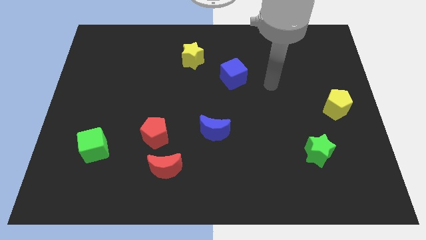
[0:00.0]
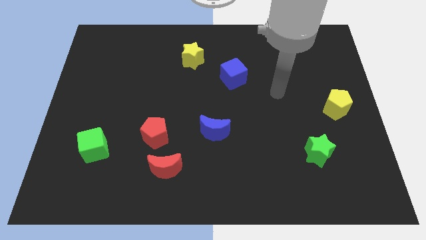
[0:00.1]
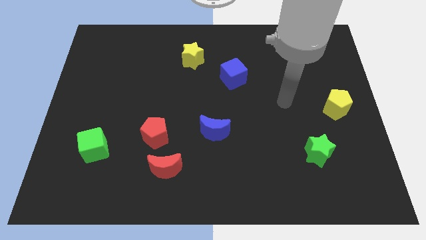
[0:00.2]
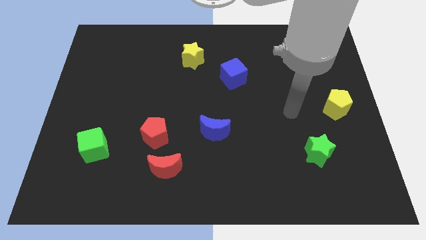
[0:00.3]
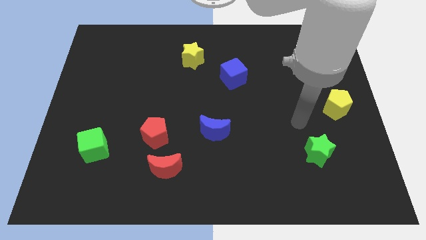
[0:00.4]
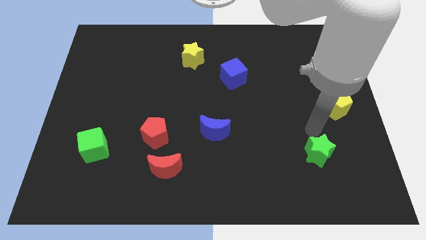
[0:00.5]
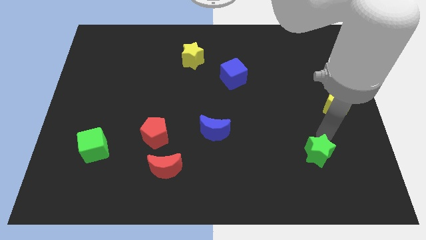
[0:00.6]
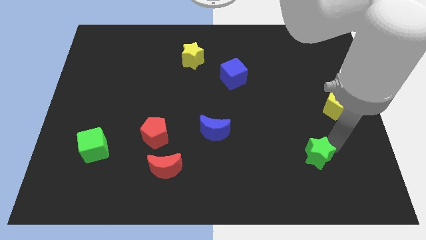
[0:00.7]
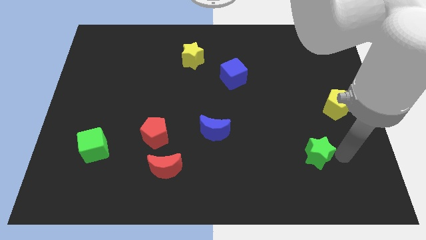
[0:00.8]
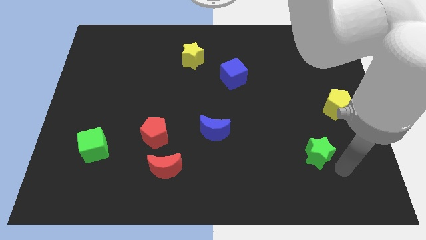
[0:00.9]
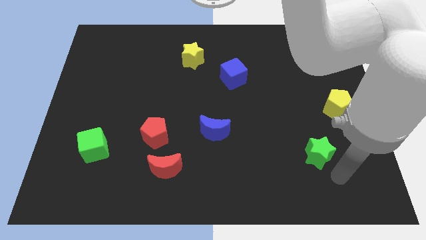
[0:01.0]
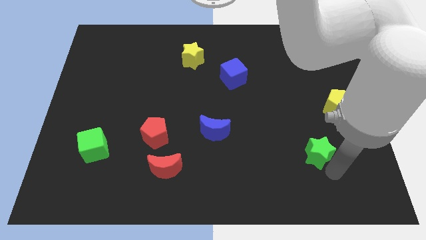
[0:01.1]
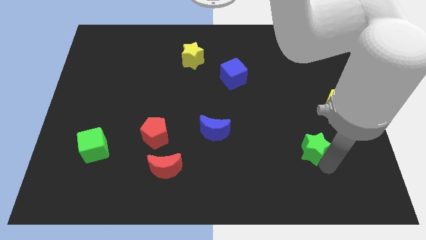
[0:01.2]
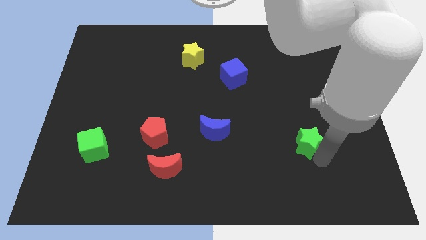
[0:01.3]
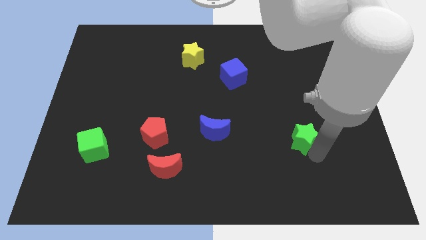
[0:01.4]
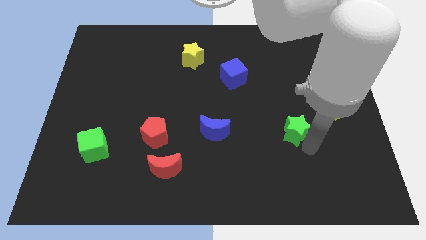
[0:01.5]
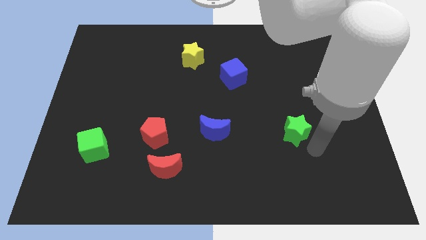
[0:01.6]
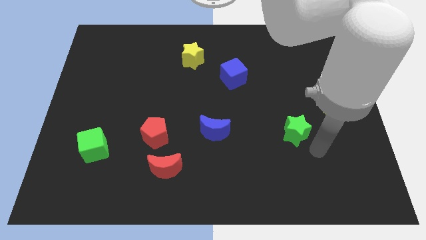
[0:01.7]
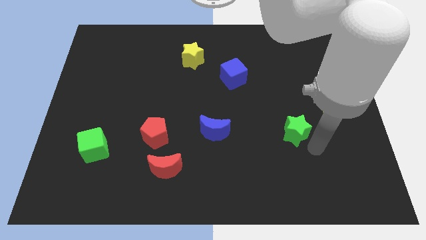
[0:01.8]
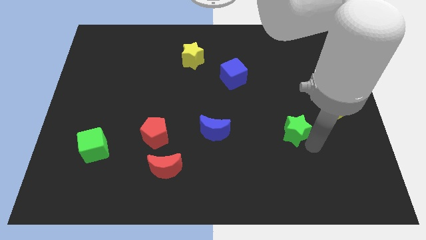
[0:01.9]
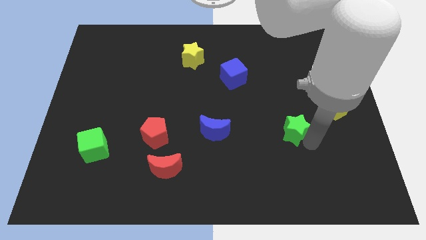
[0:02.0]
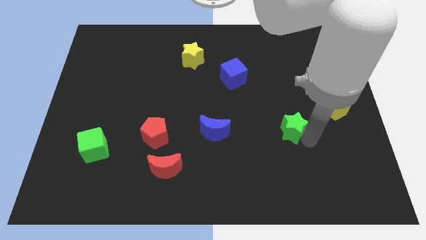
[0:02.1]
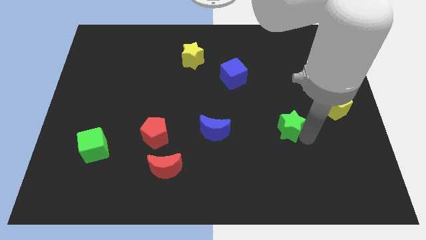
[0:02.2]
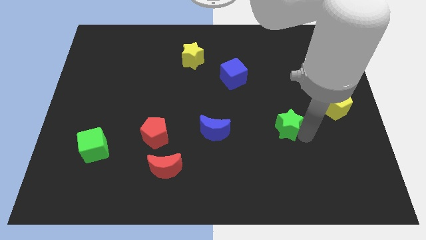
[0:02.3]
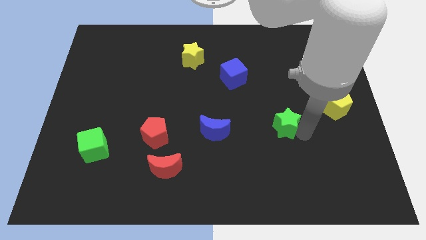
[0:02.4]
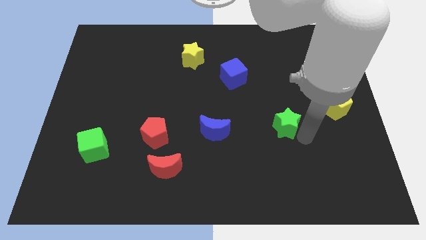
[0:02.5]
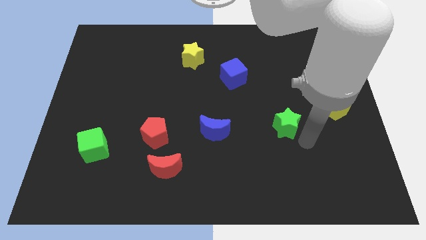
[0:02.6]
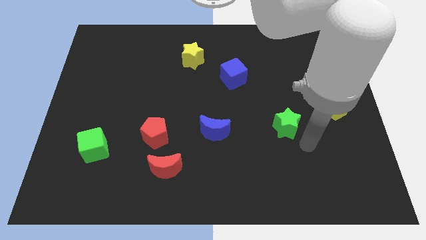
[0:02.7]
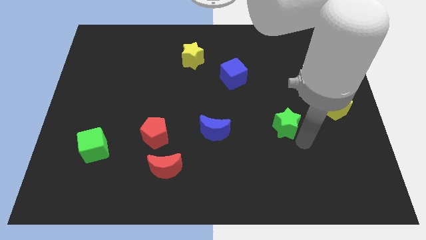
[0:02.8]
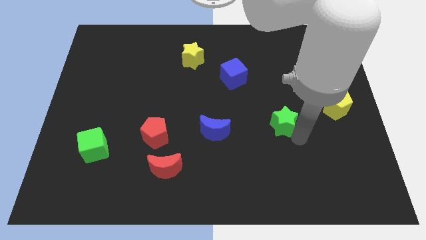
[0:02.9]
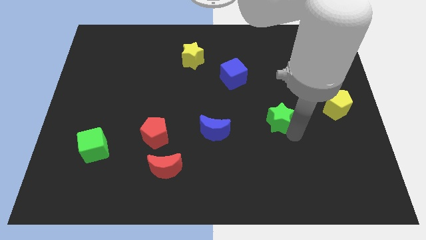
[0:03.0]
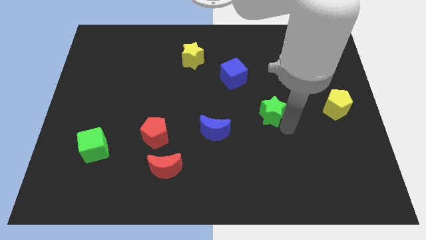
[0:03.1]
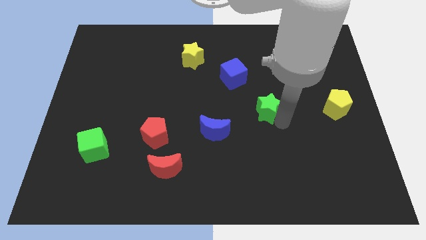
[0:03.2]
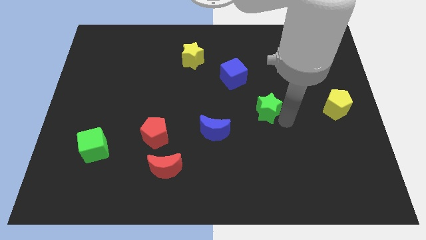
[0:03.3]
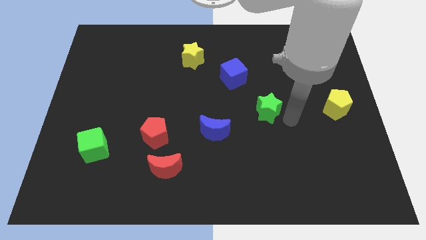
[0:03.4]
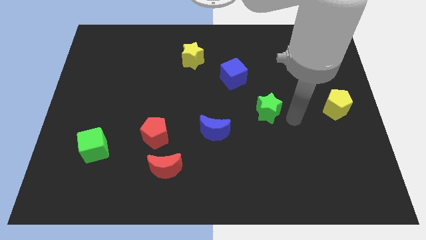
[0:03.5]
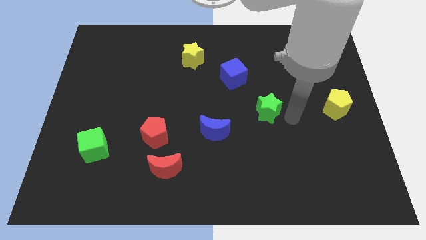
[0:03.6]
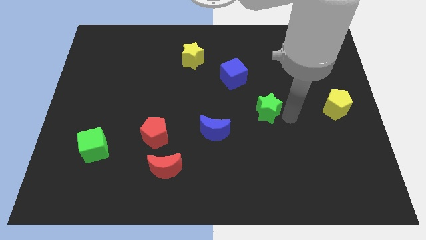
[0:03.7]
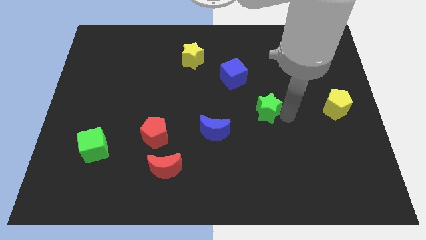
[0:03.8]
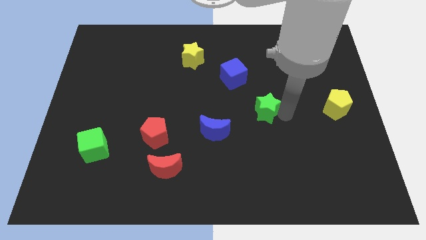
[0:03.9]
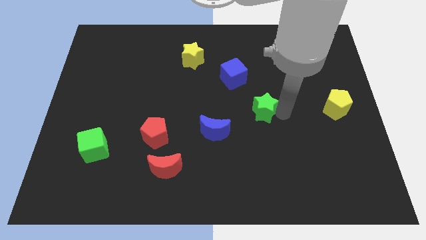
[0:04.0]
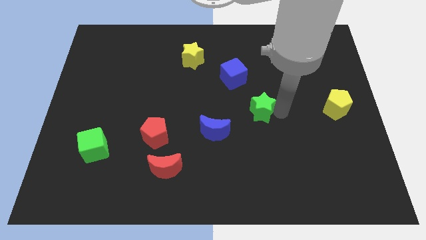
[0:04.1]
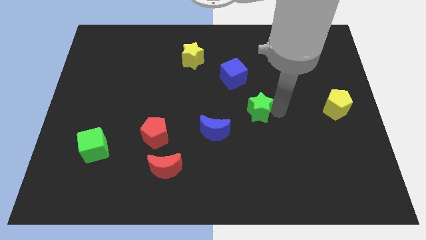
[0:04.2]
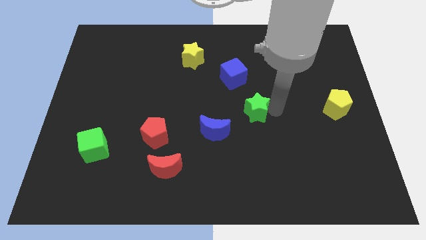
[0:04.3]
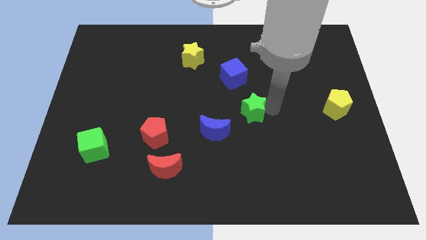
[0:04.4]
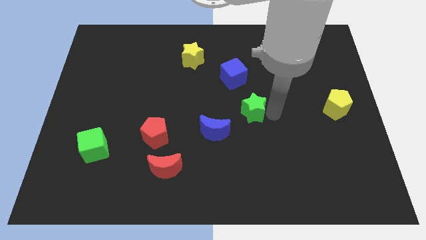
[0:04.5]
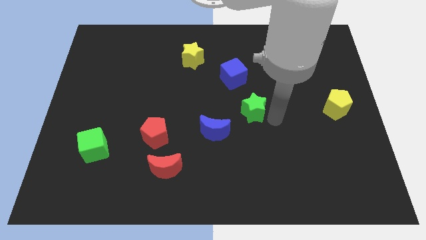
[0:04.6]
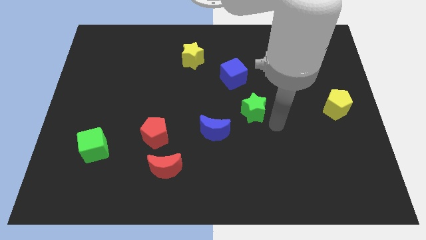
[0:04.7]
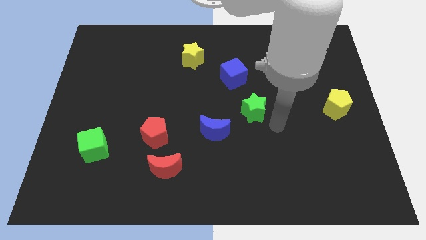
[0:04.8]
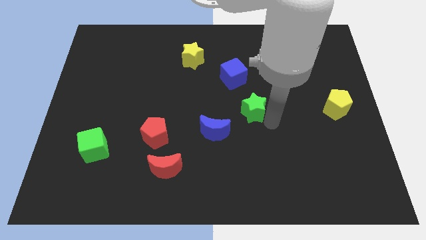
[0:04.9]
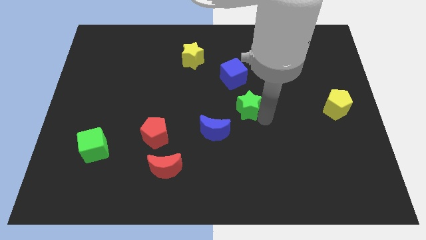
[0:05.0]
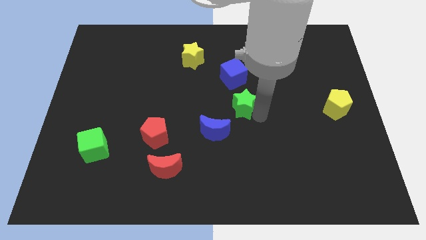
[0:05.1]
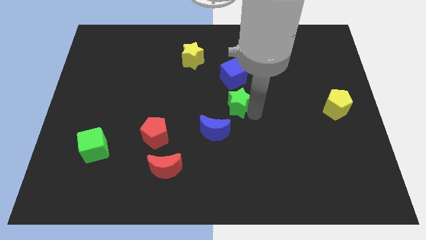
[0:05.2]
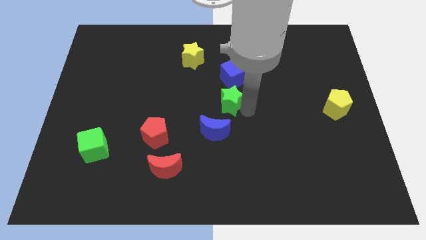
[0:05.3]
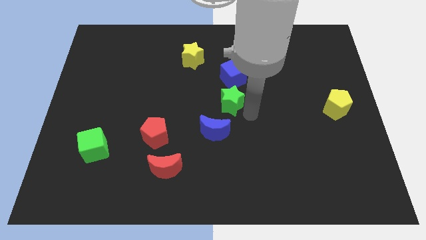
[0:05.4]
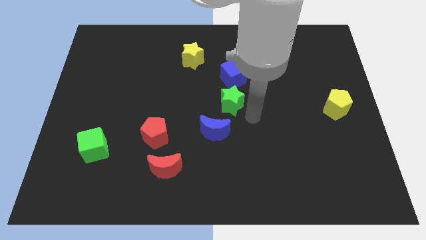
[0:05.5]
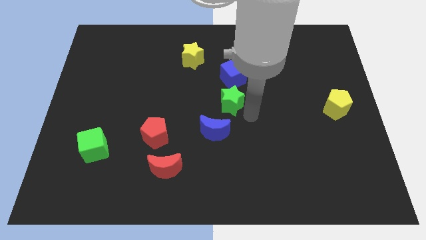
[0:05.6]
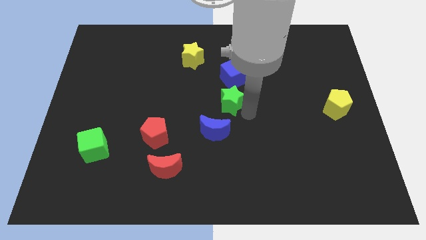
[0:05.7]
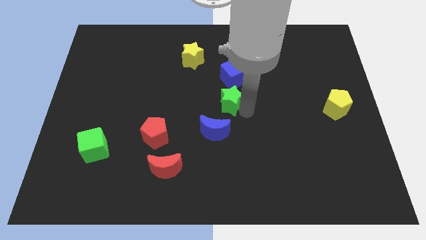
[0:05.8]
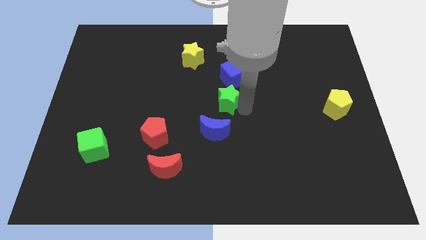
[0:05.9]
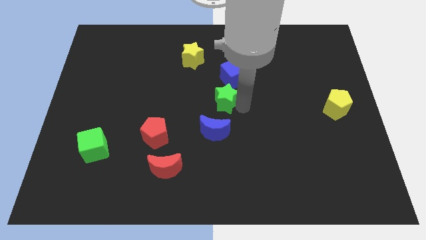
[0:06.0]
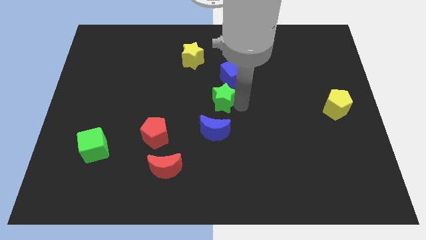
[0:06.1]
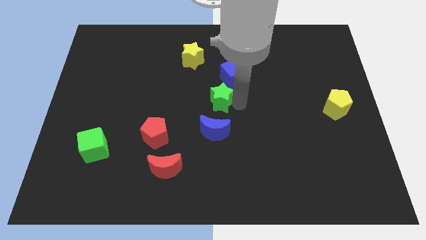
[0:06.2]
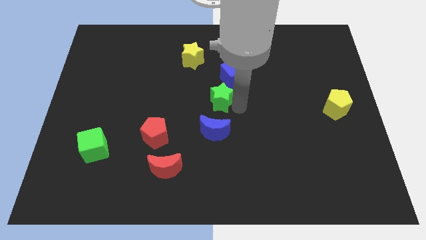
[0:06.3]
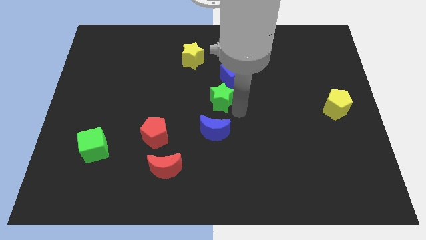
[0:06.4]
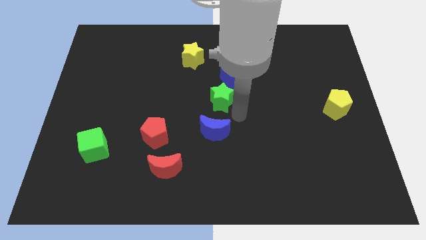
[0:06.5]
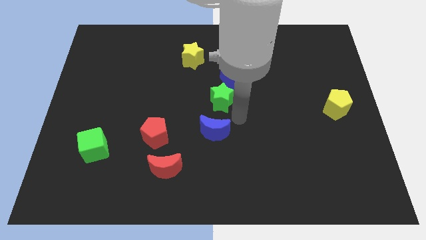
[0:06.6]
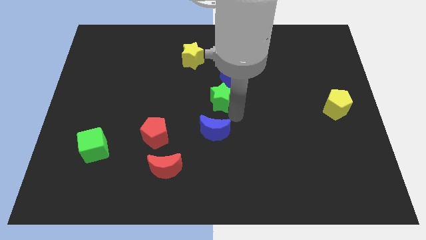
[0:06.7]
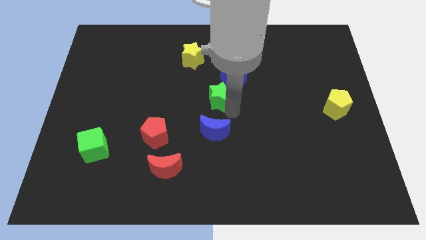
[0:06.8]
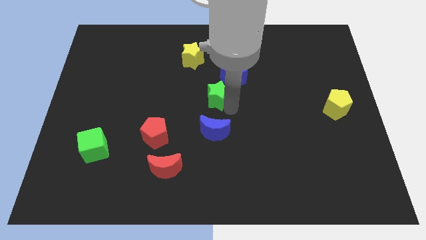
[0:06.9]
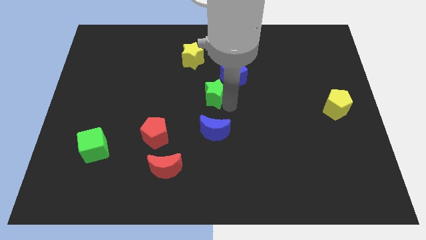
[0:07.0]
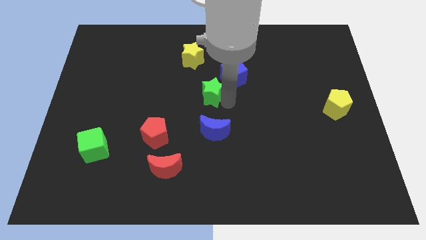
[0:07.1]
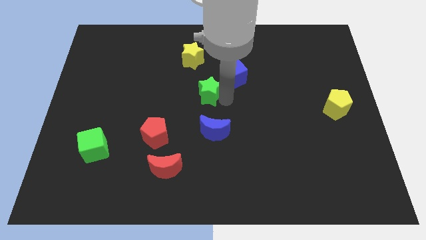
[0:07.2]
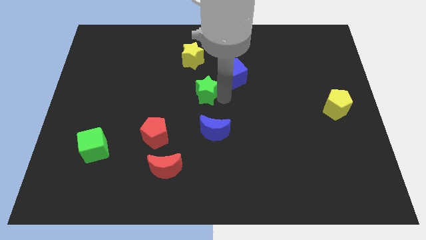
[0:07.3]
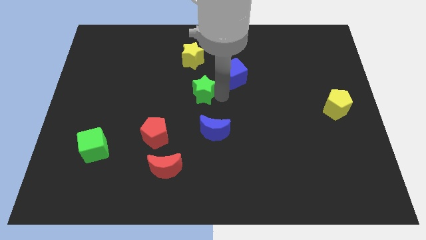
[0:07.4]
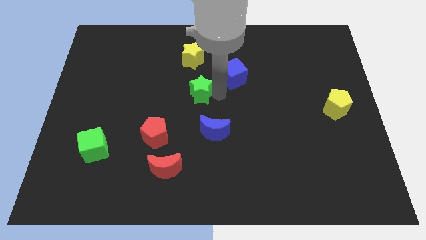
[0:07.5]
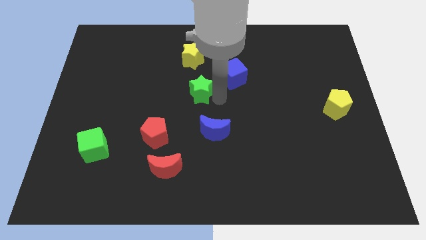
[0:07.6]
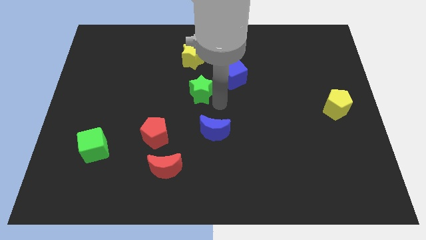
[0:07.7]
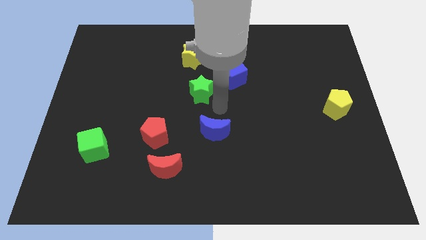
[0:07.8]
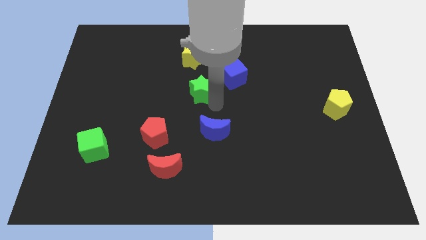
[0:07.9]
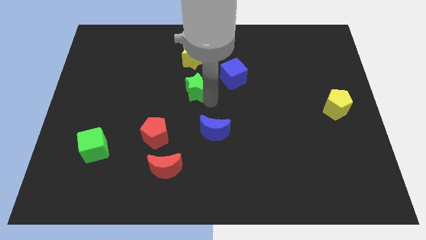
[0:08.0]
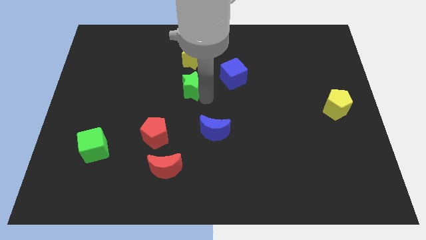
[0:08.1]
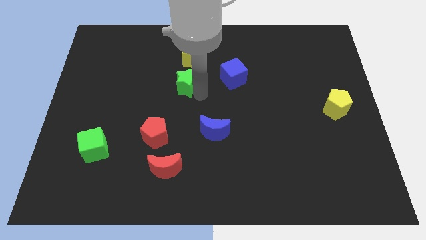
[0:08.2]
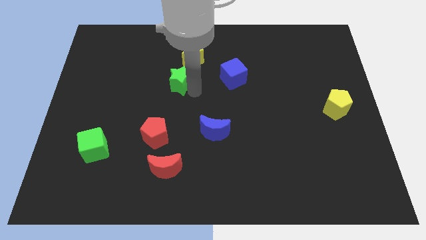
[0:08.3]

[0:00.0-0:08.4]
slide the green star to the bottom left side of the yellow star
